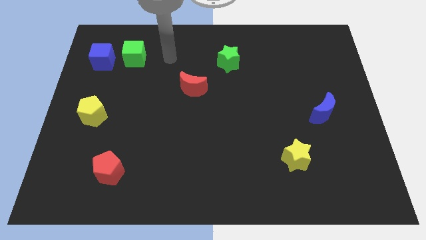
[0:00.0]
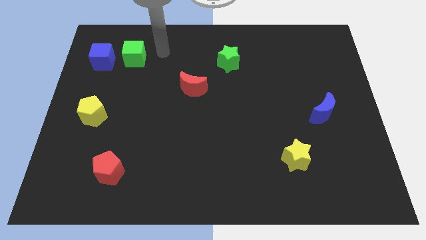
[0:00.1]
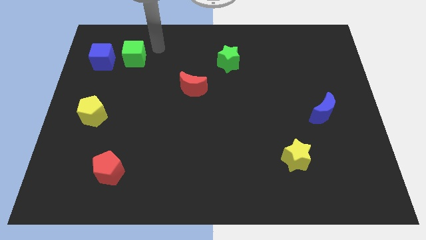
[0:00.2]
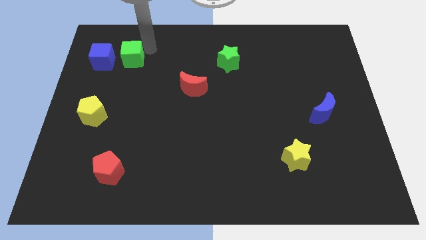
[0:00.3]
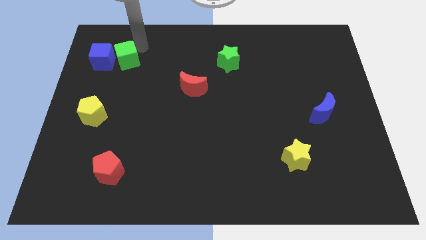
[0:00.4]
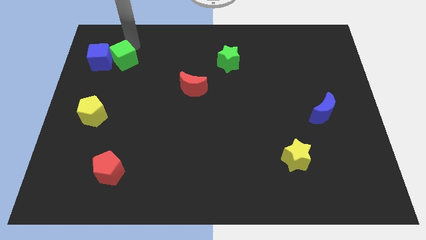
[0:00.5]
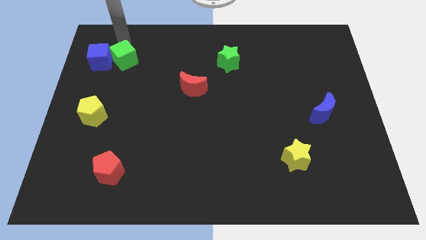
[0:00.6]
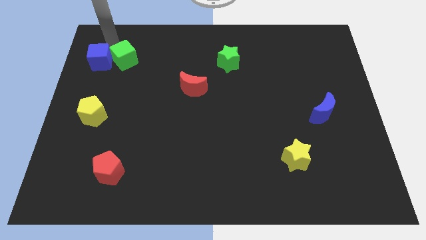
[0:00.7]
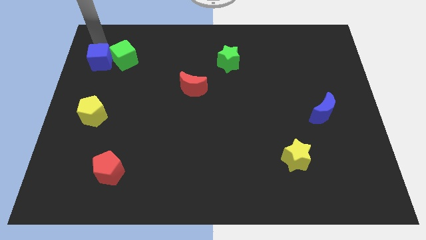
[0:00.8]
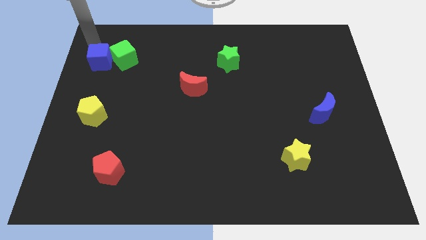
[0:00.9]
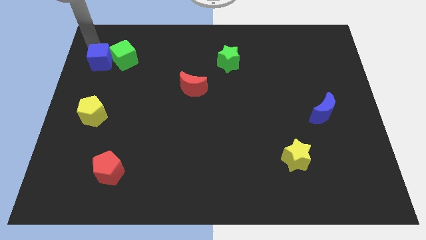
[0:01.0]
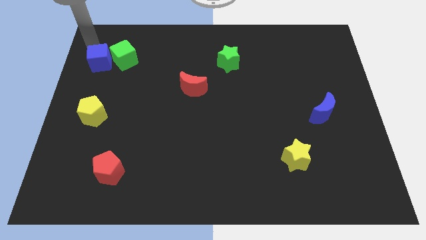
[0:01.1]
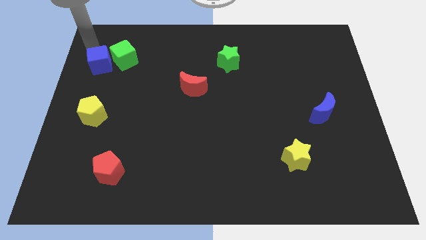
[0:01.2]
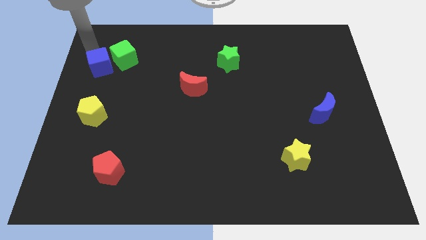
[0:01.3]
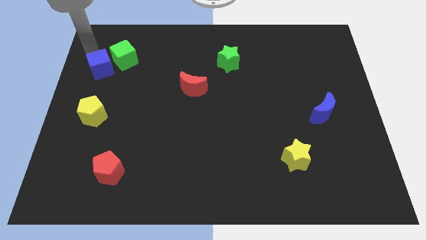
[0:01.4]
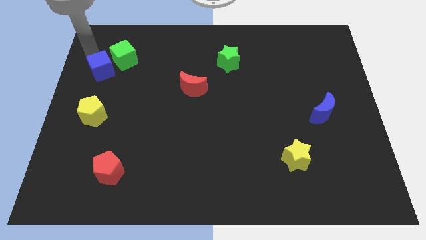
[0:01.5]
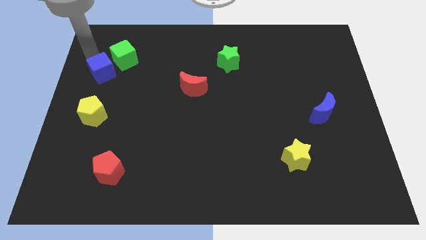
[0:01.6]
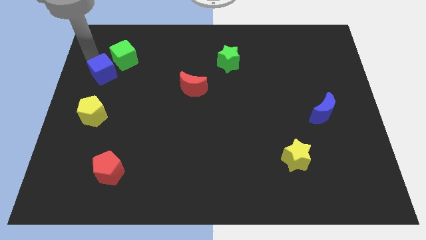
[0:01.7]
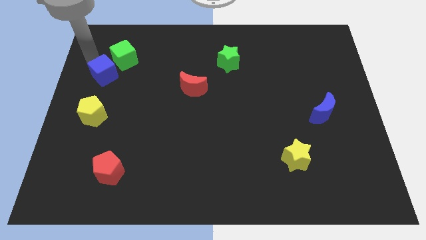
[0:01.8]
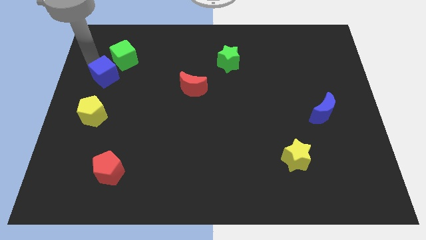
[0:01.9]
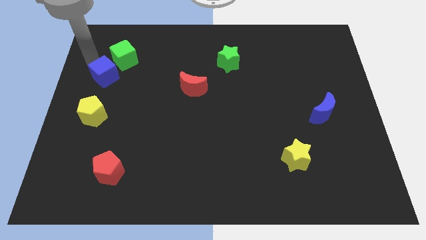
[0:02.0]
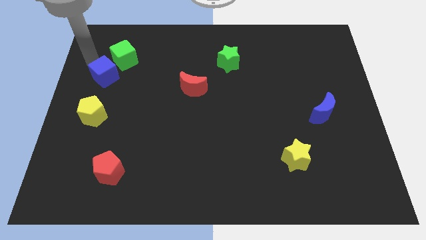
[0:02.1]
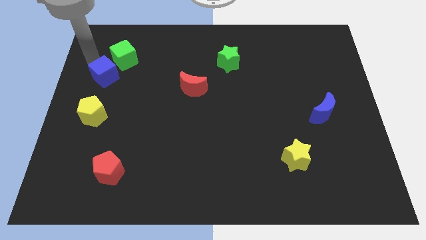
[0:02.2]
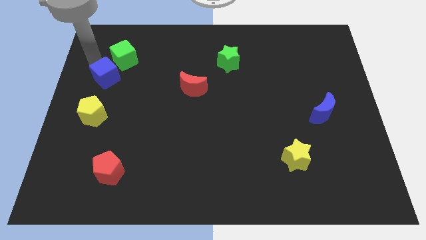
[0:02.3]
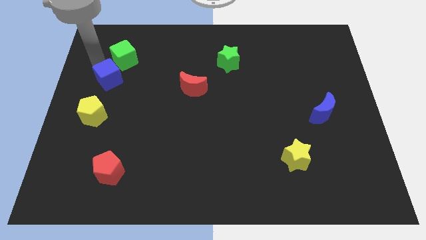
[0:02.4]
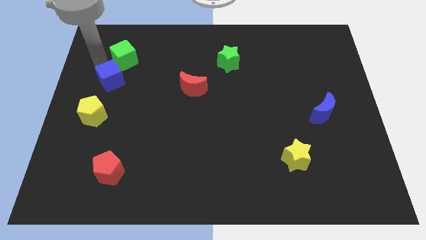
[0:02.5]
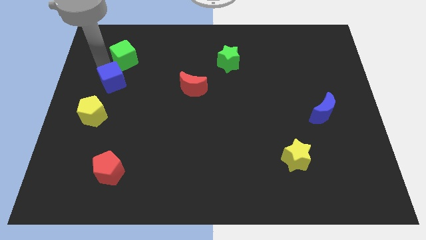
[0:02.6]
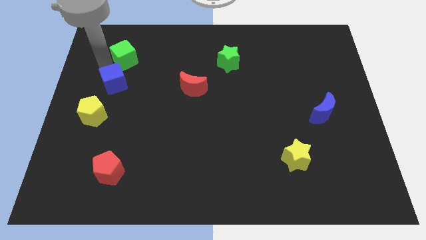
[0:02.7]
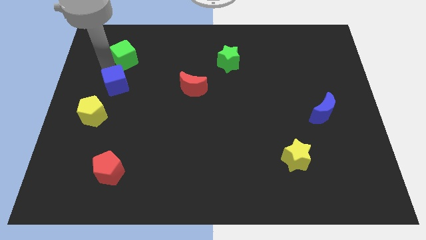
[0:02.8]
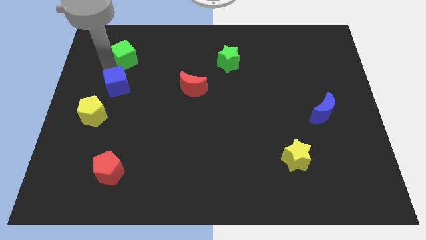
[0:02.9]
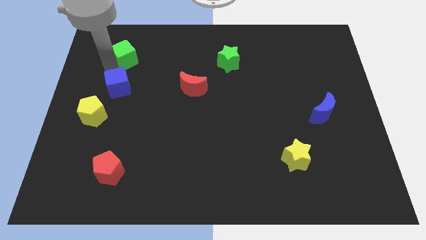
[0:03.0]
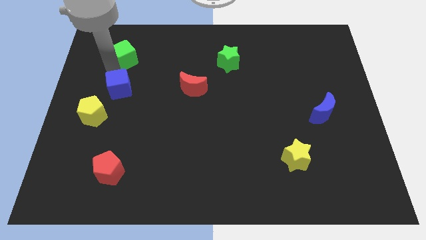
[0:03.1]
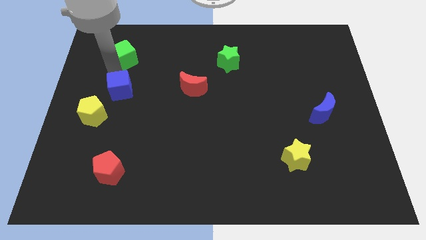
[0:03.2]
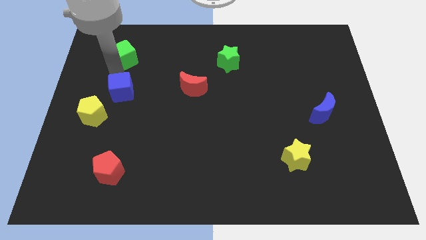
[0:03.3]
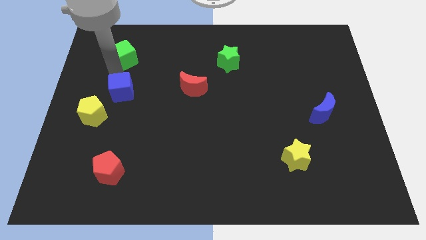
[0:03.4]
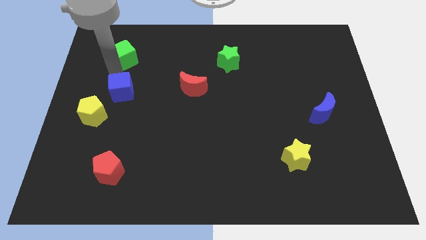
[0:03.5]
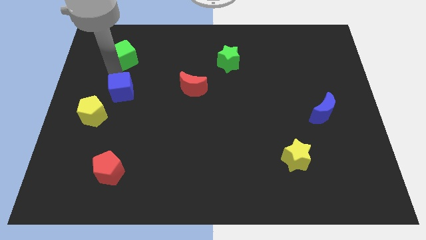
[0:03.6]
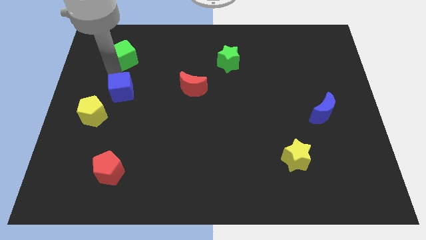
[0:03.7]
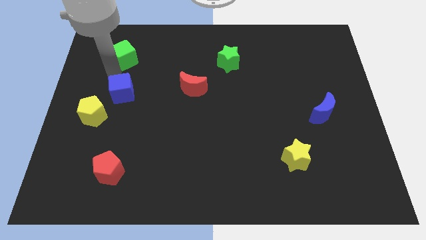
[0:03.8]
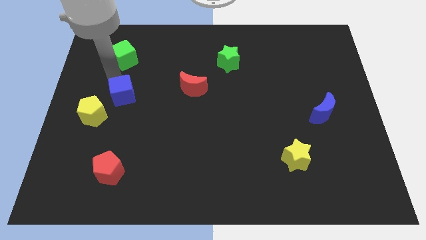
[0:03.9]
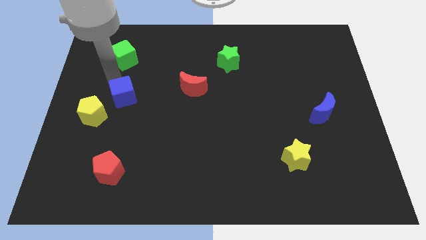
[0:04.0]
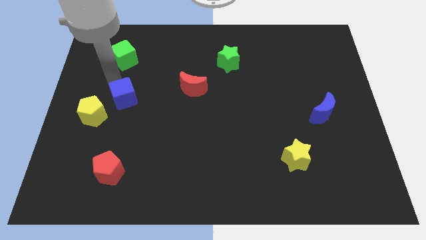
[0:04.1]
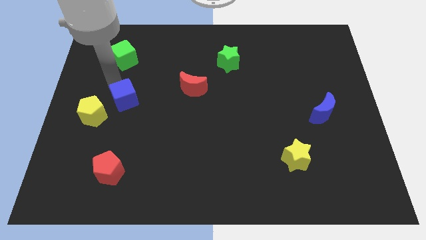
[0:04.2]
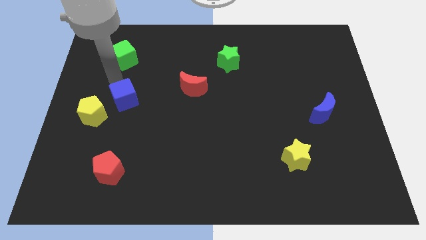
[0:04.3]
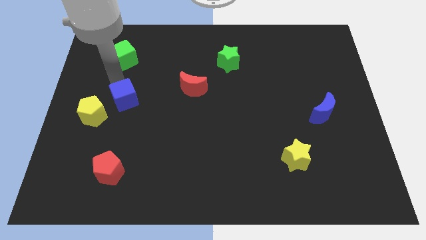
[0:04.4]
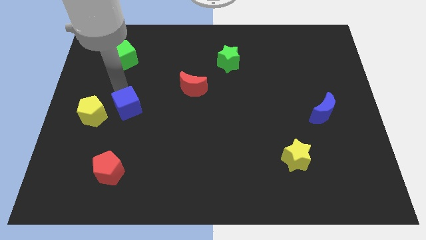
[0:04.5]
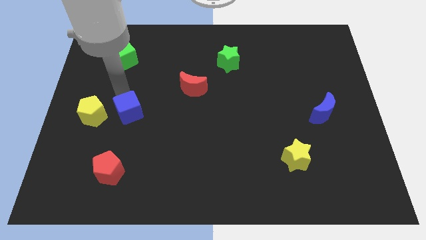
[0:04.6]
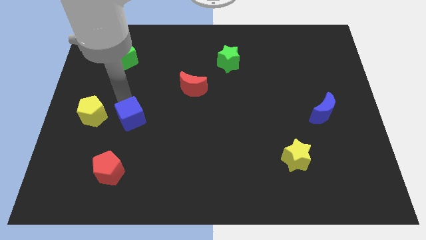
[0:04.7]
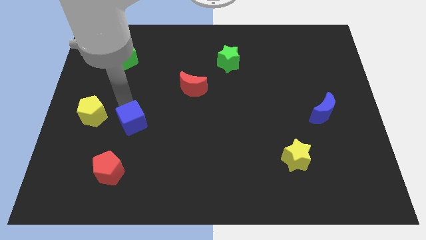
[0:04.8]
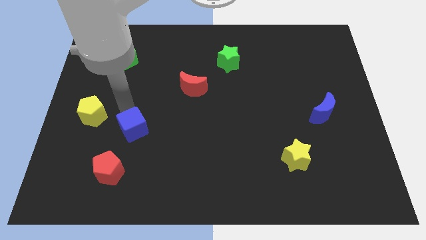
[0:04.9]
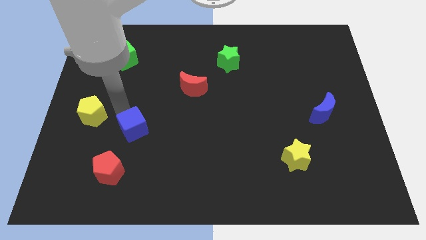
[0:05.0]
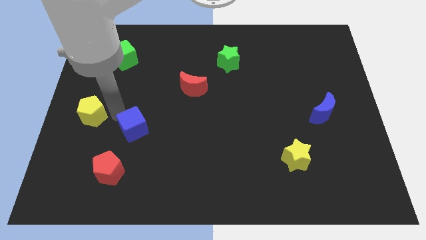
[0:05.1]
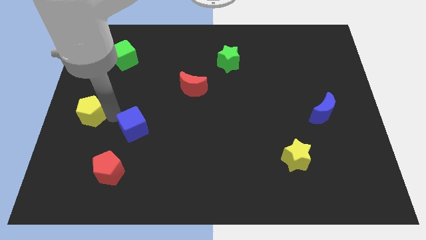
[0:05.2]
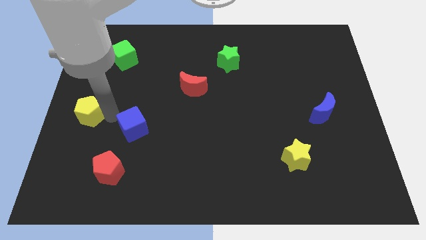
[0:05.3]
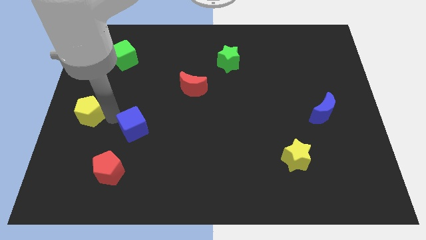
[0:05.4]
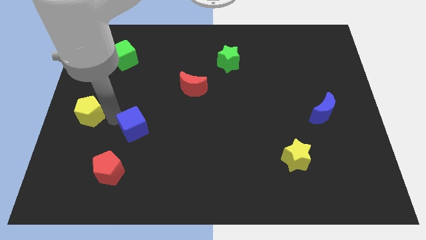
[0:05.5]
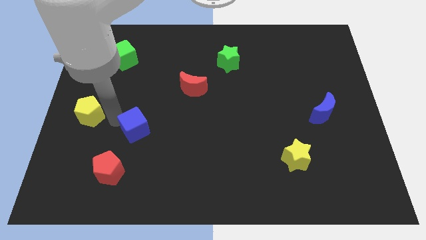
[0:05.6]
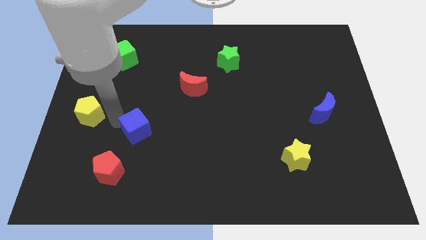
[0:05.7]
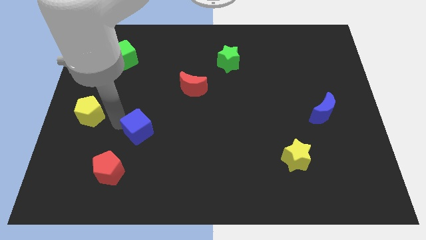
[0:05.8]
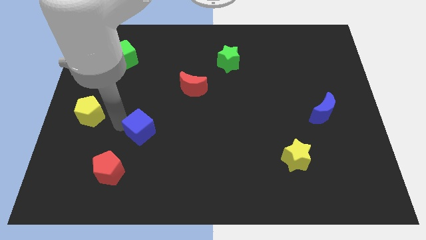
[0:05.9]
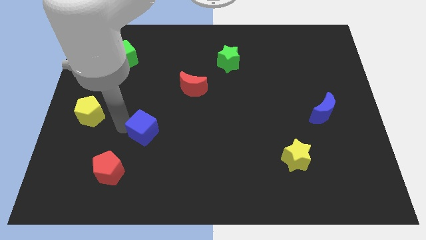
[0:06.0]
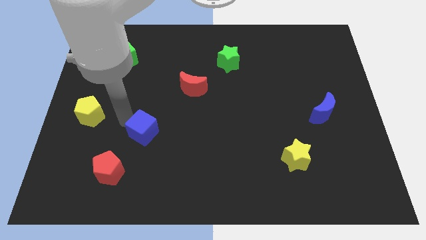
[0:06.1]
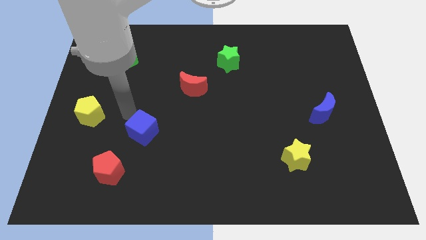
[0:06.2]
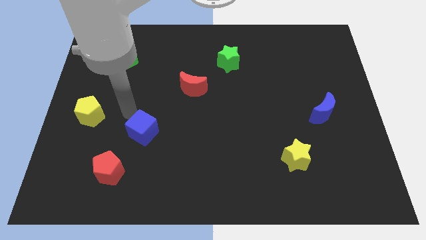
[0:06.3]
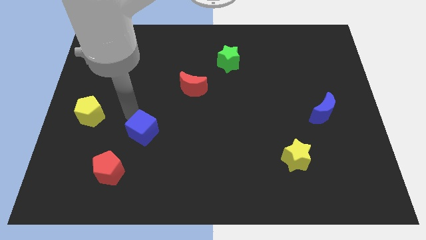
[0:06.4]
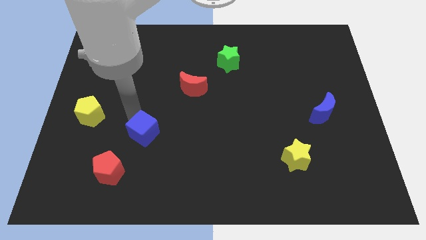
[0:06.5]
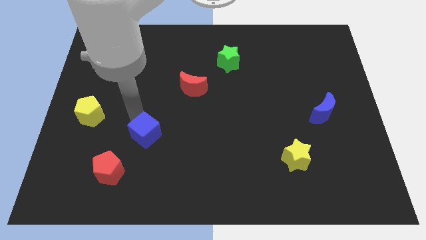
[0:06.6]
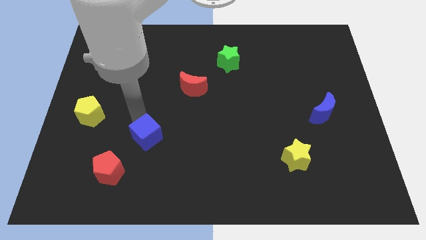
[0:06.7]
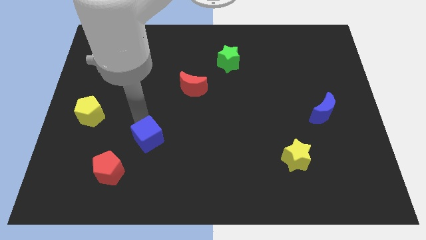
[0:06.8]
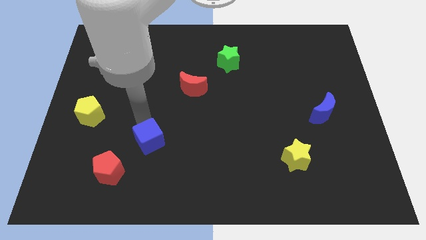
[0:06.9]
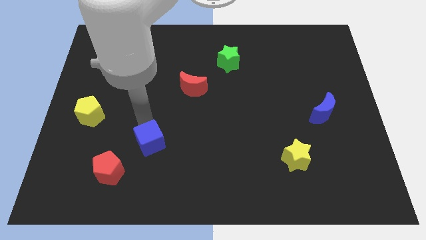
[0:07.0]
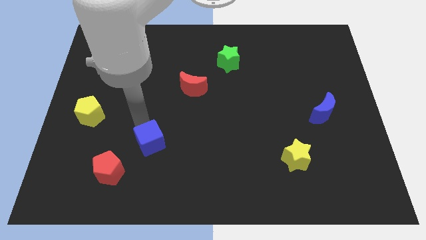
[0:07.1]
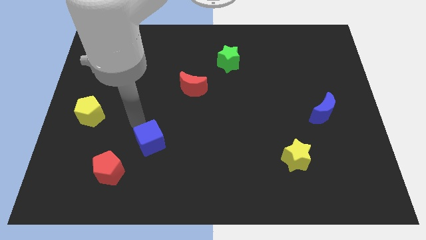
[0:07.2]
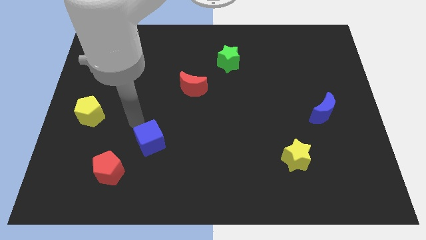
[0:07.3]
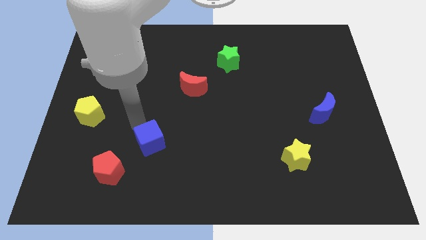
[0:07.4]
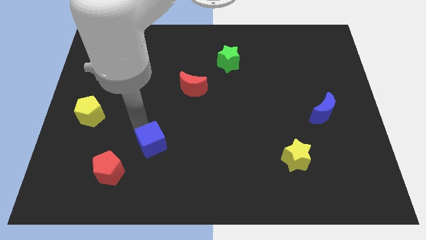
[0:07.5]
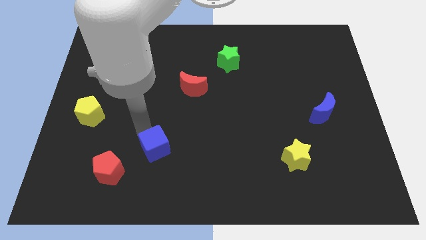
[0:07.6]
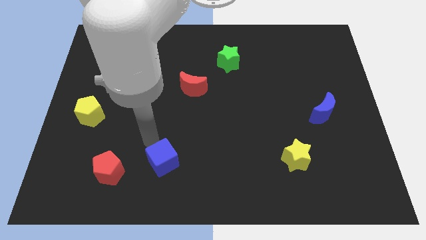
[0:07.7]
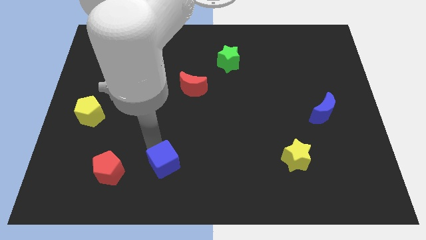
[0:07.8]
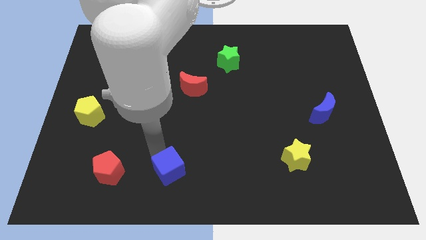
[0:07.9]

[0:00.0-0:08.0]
move the blue cube to the bottom side
